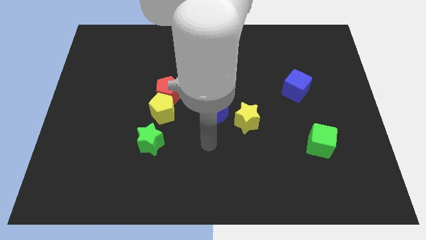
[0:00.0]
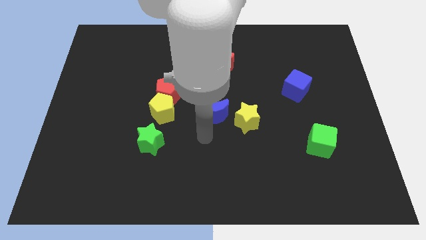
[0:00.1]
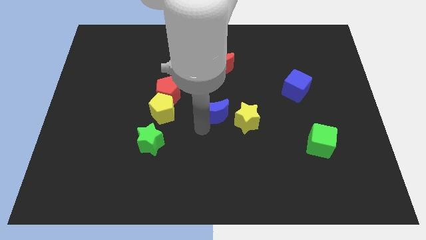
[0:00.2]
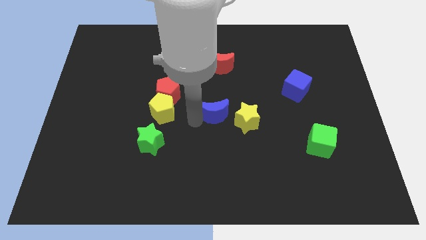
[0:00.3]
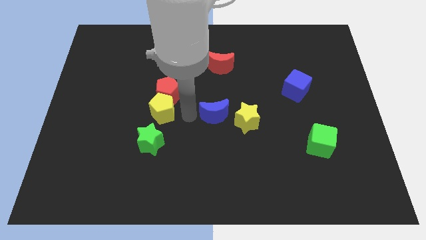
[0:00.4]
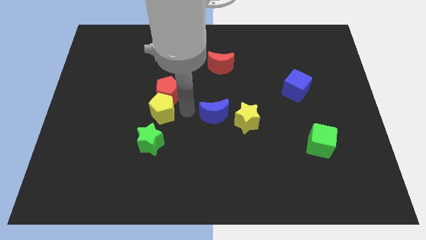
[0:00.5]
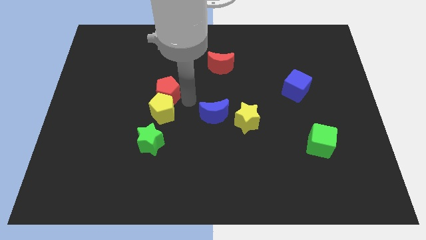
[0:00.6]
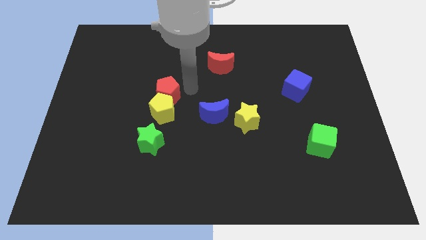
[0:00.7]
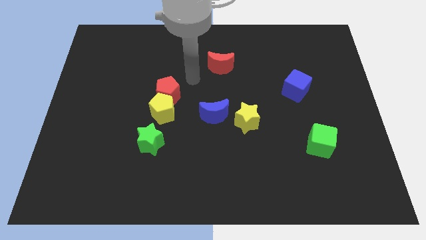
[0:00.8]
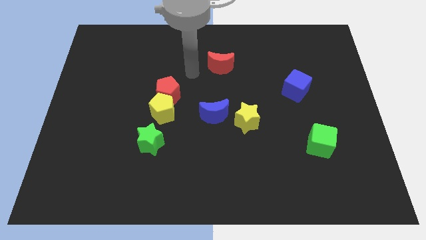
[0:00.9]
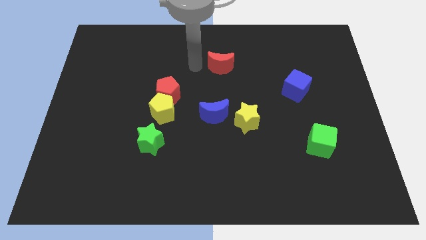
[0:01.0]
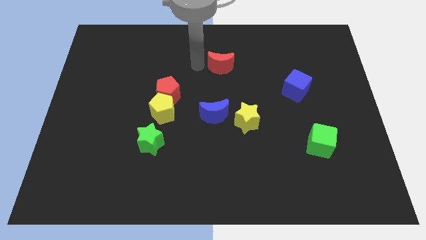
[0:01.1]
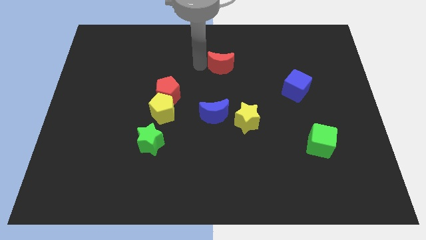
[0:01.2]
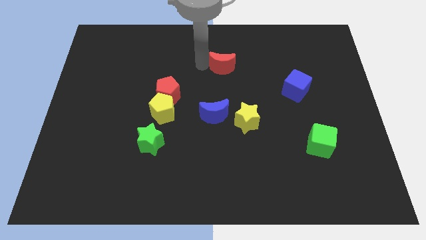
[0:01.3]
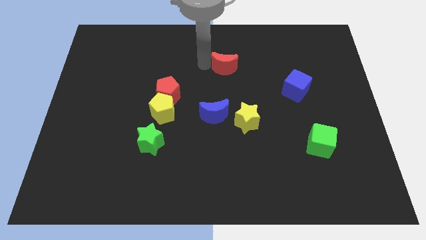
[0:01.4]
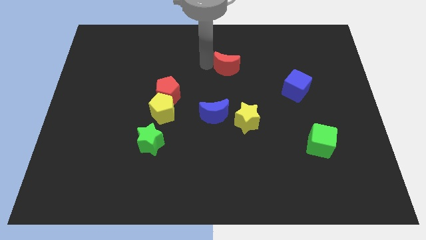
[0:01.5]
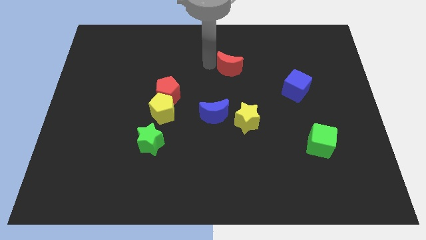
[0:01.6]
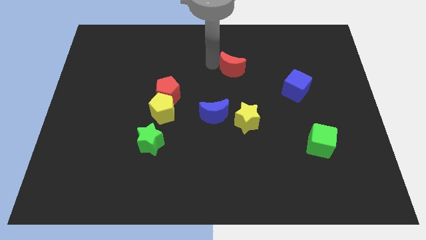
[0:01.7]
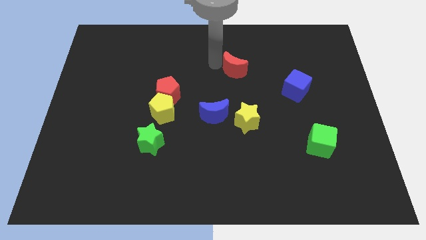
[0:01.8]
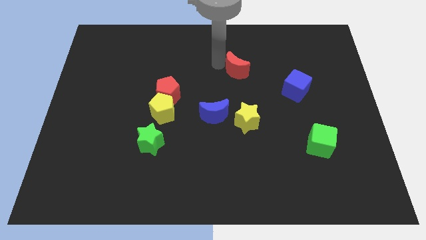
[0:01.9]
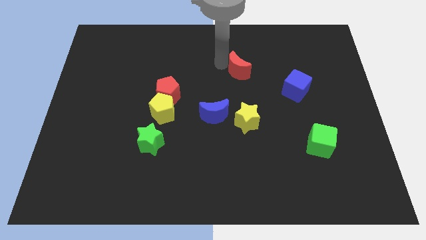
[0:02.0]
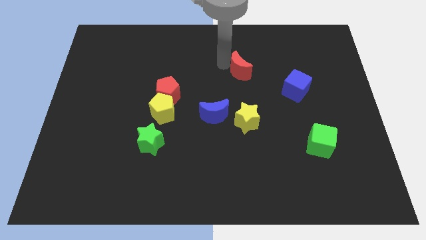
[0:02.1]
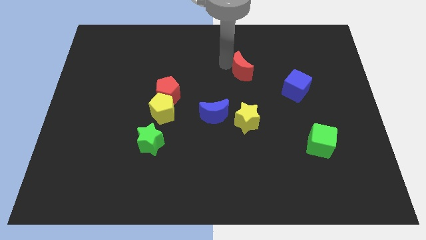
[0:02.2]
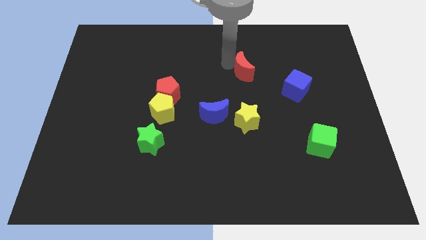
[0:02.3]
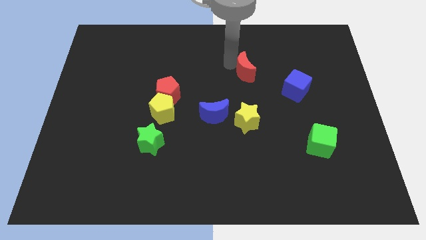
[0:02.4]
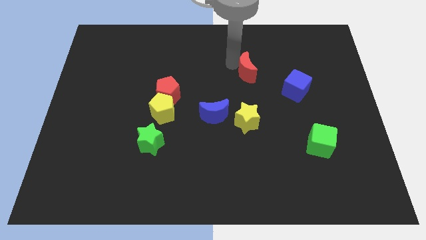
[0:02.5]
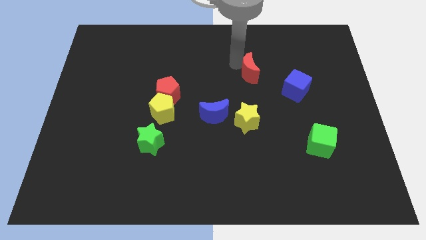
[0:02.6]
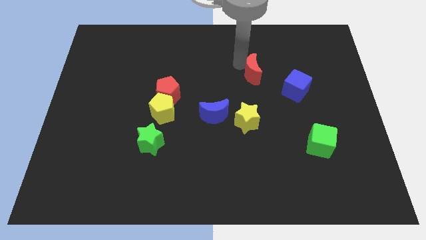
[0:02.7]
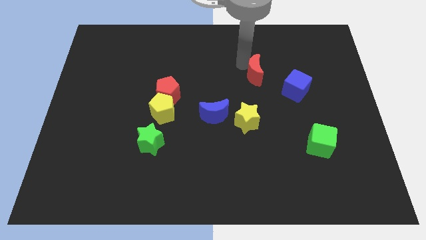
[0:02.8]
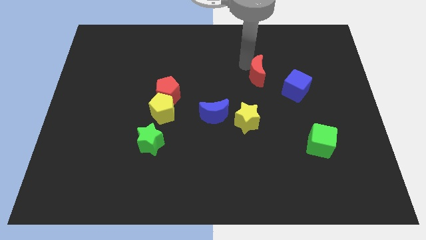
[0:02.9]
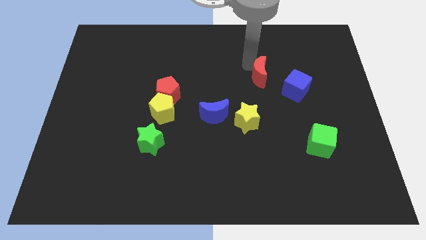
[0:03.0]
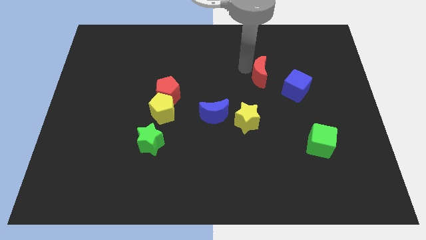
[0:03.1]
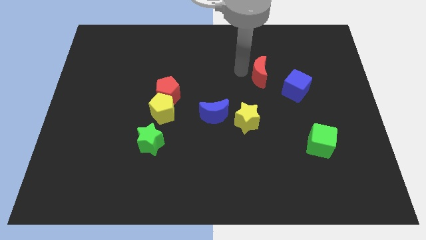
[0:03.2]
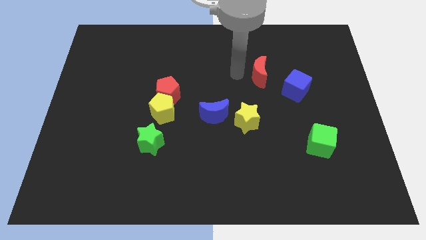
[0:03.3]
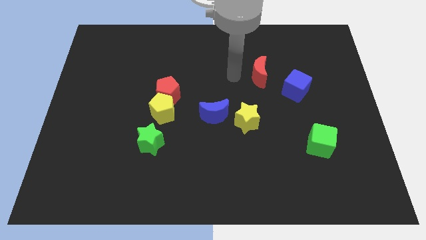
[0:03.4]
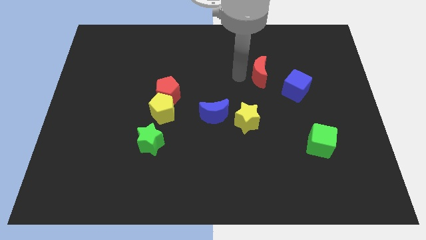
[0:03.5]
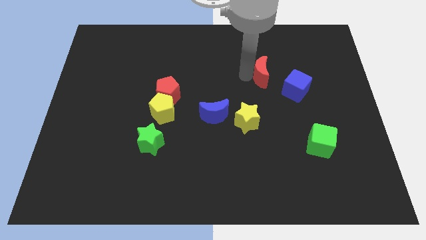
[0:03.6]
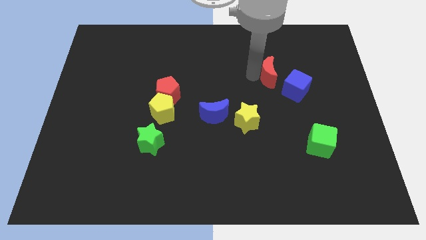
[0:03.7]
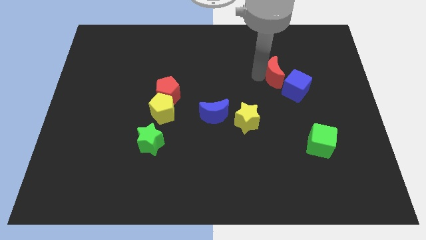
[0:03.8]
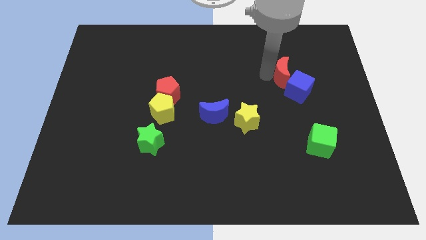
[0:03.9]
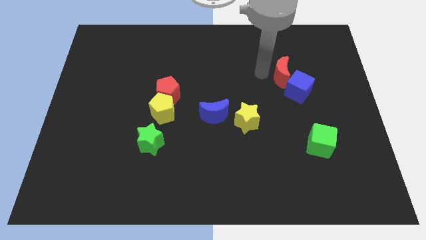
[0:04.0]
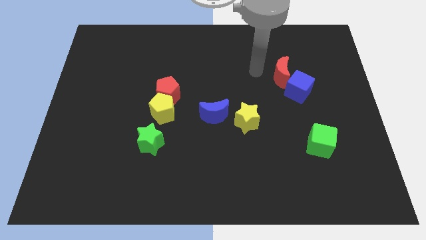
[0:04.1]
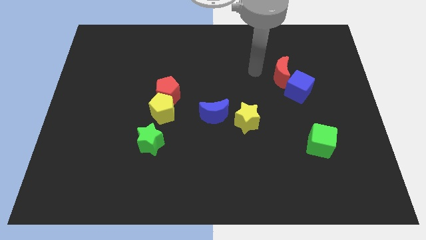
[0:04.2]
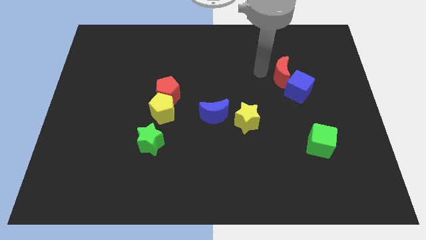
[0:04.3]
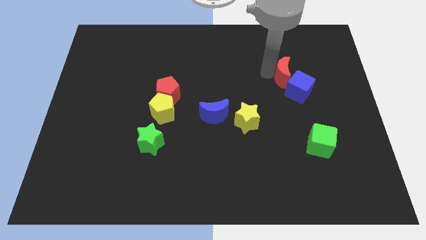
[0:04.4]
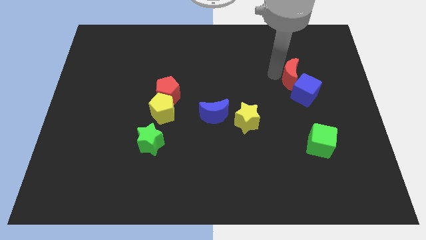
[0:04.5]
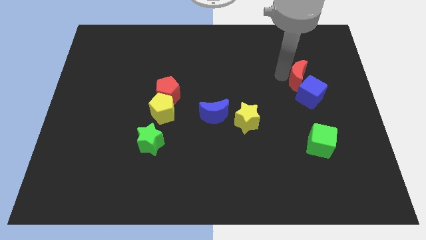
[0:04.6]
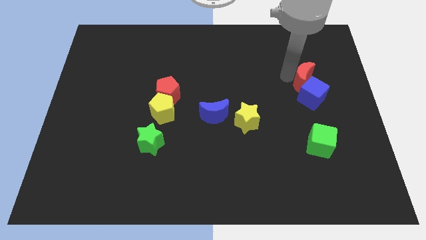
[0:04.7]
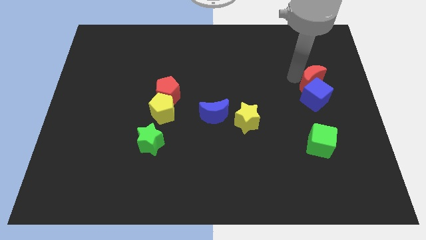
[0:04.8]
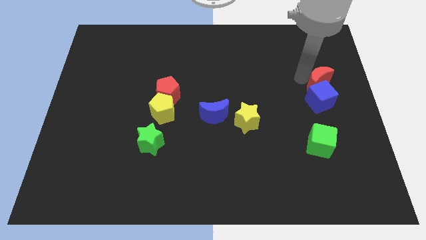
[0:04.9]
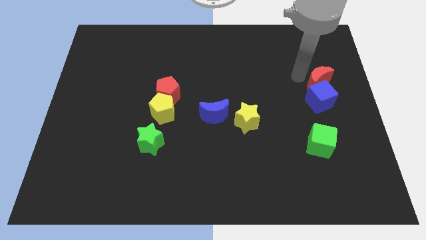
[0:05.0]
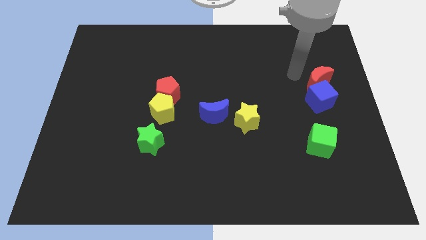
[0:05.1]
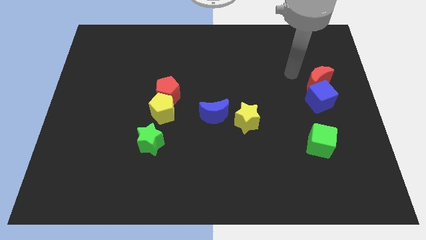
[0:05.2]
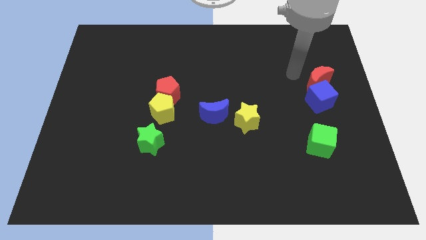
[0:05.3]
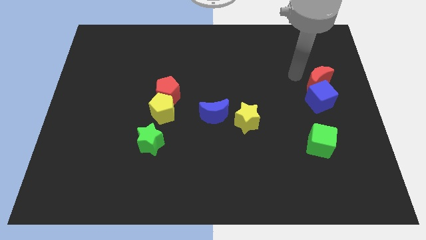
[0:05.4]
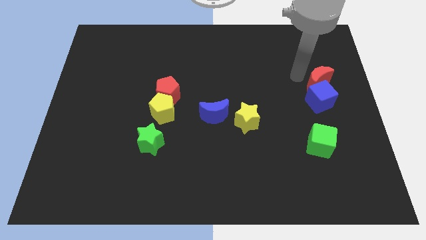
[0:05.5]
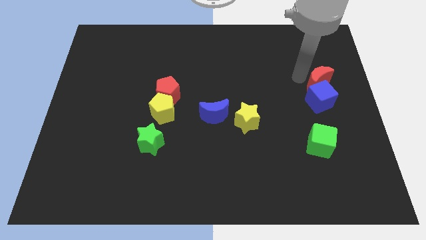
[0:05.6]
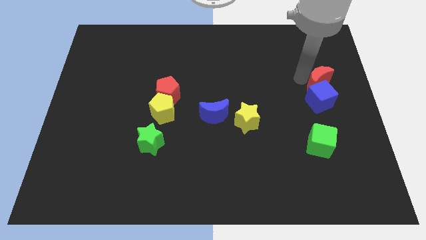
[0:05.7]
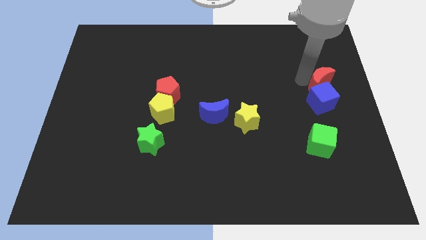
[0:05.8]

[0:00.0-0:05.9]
put the red moon to the right side of the board

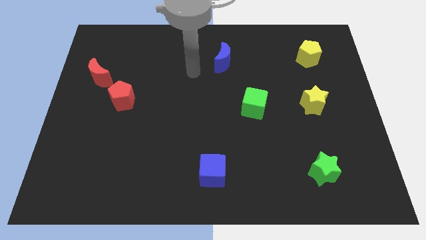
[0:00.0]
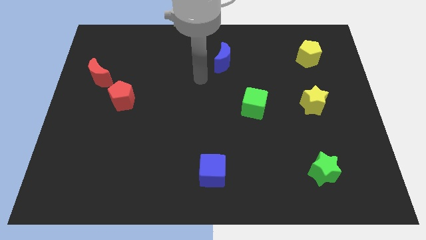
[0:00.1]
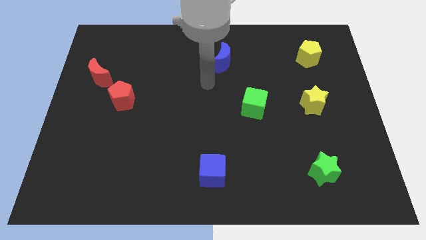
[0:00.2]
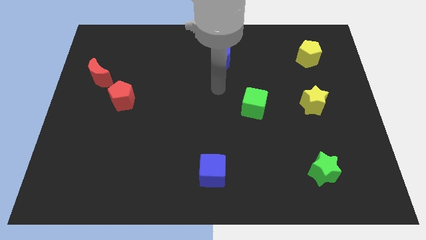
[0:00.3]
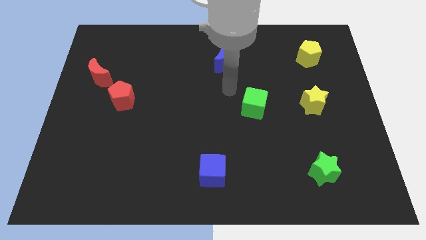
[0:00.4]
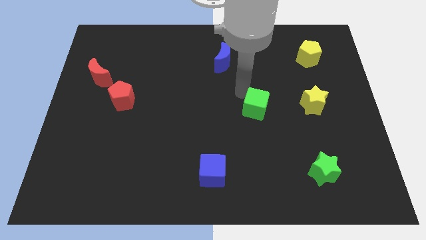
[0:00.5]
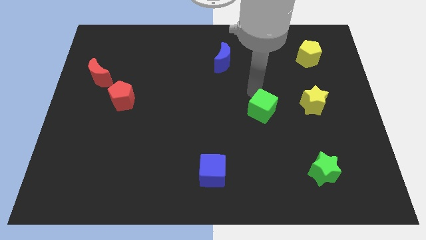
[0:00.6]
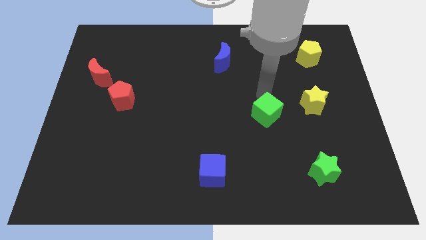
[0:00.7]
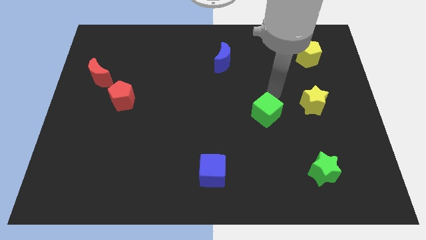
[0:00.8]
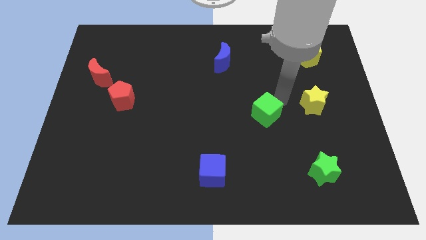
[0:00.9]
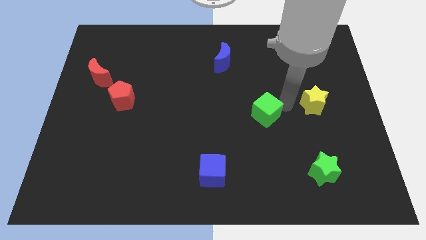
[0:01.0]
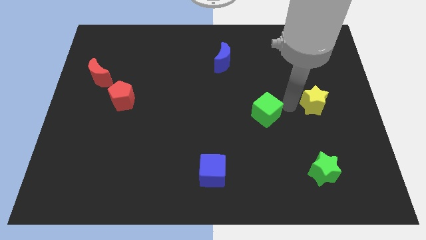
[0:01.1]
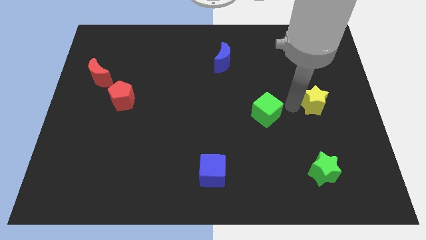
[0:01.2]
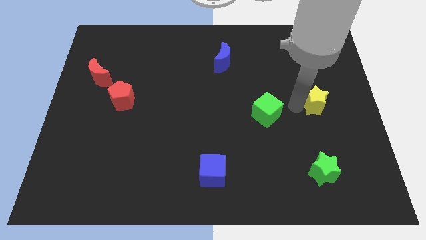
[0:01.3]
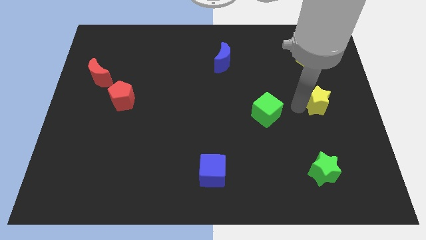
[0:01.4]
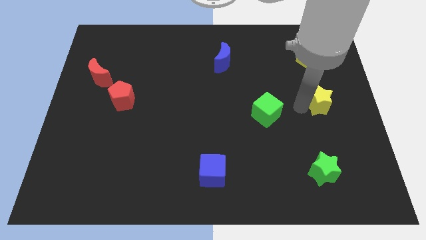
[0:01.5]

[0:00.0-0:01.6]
push the yellow star to the right side
